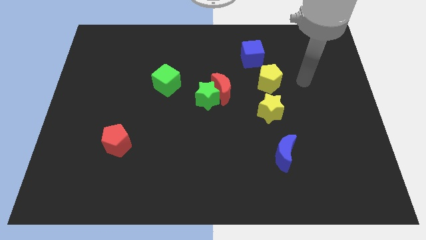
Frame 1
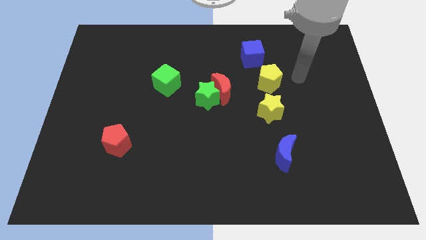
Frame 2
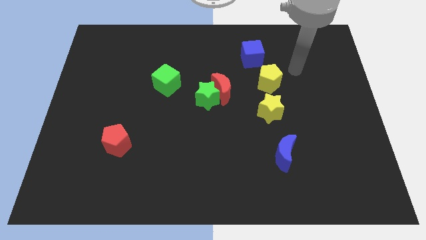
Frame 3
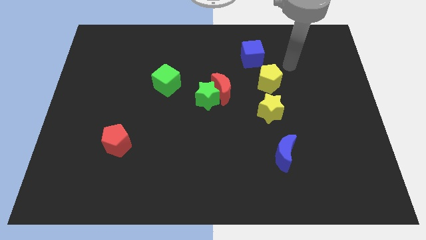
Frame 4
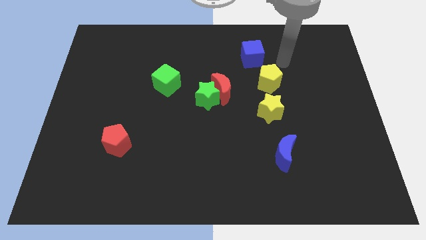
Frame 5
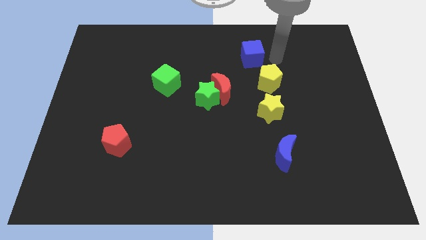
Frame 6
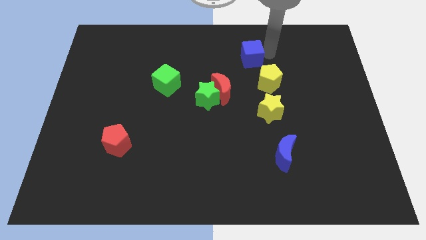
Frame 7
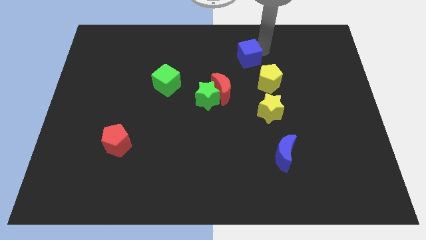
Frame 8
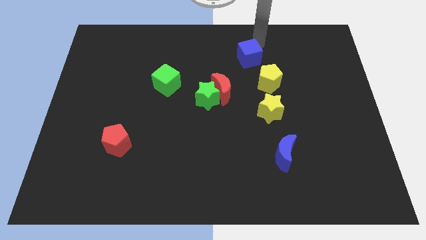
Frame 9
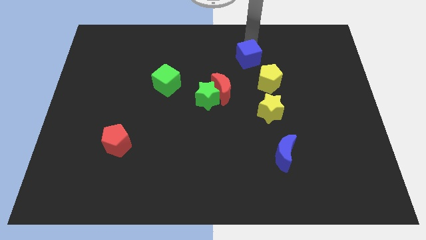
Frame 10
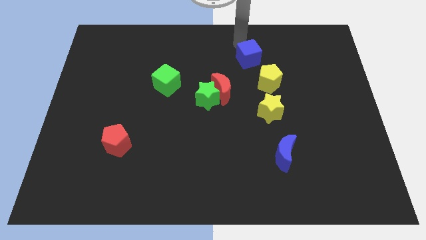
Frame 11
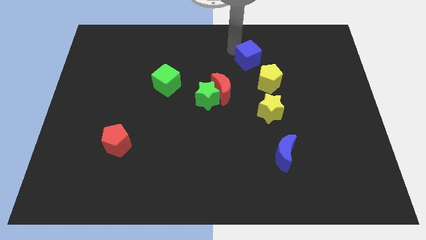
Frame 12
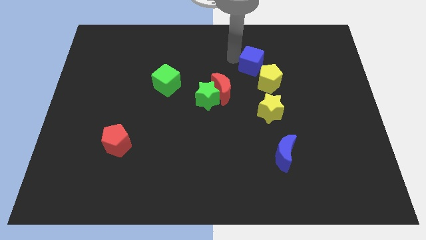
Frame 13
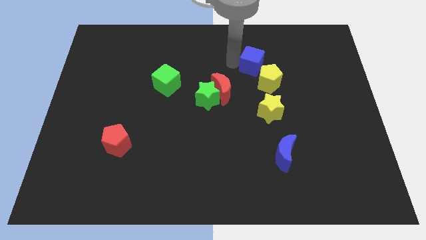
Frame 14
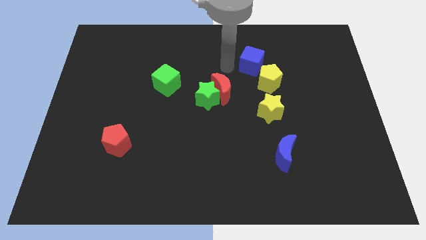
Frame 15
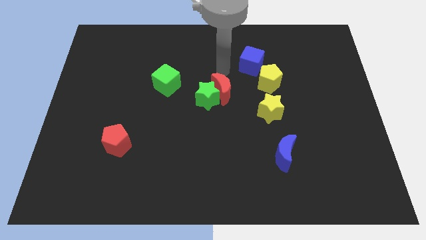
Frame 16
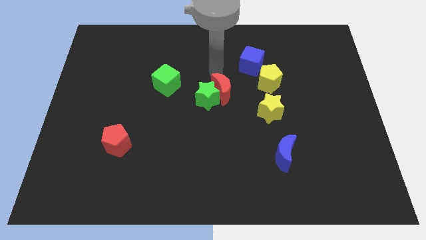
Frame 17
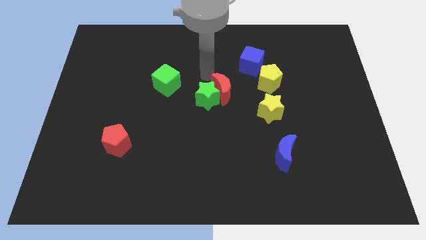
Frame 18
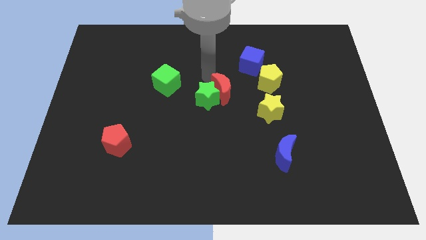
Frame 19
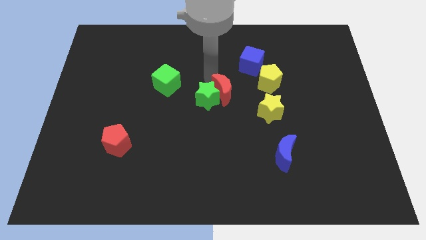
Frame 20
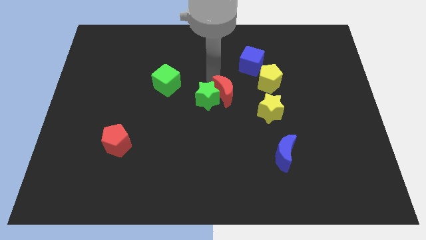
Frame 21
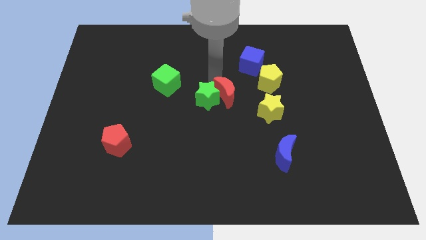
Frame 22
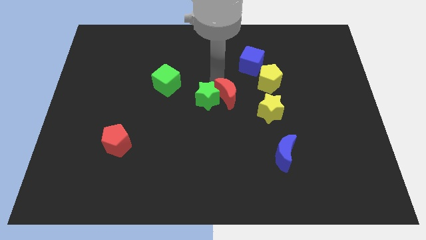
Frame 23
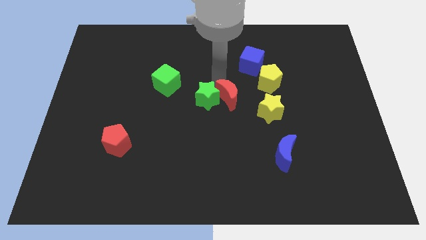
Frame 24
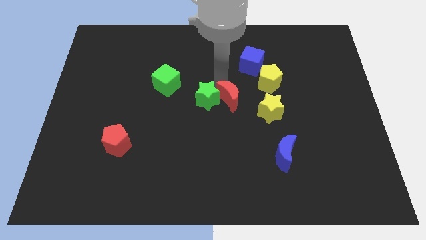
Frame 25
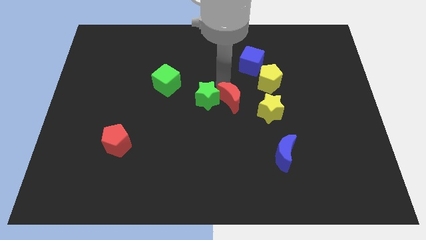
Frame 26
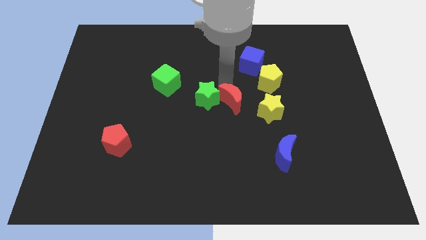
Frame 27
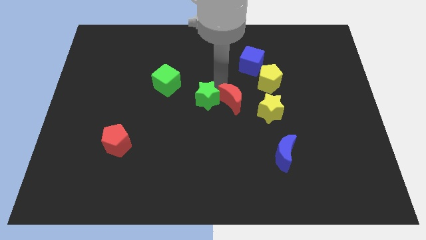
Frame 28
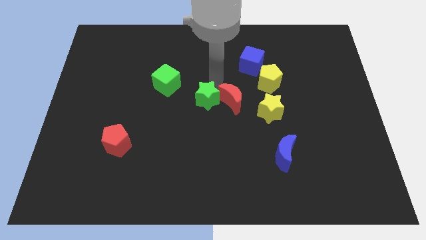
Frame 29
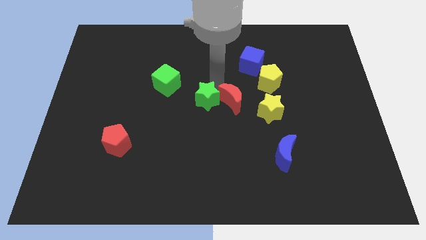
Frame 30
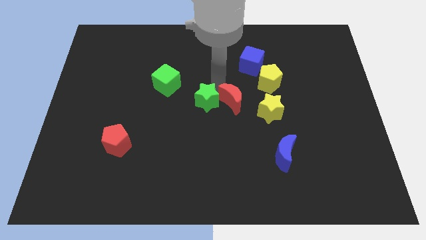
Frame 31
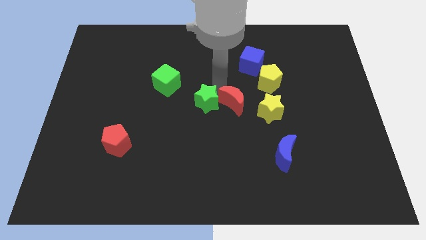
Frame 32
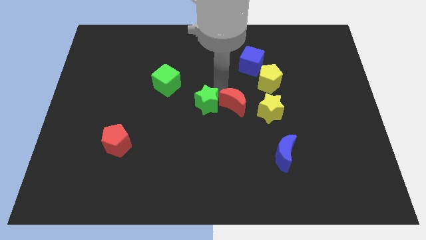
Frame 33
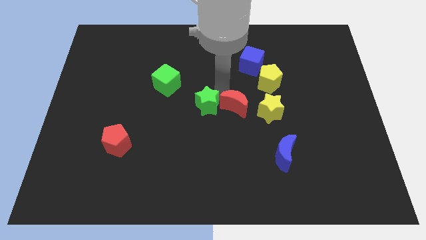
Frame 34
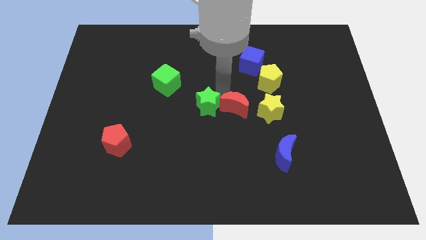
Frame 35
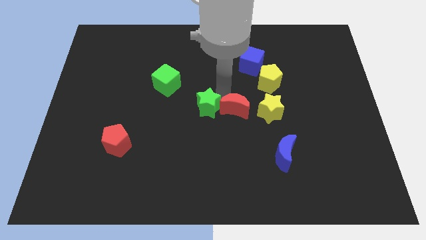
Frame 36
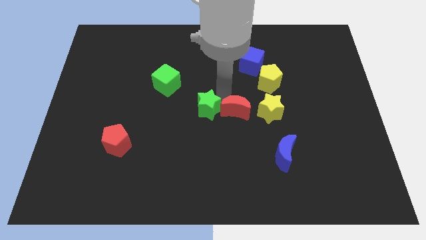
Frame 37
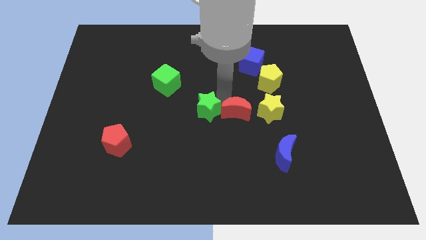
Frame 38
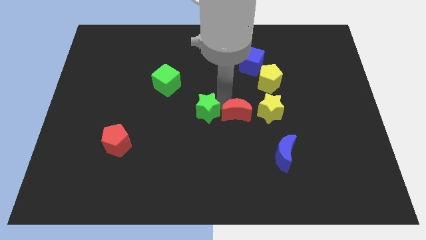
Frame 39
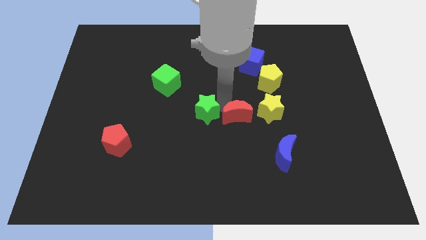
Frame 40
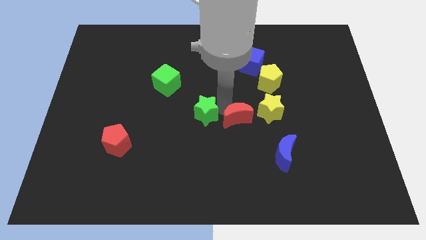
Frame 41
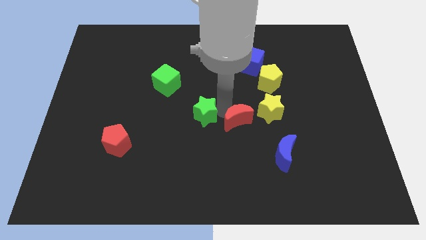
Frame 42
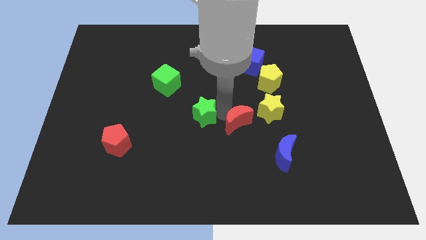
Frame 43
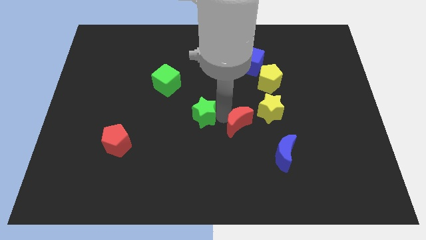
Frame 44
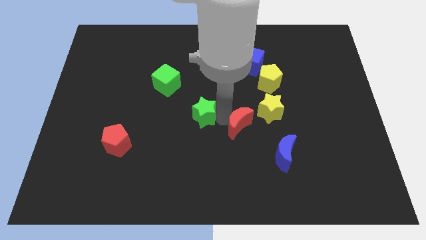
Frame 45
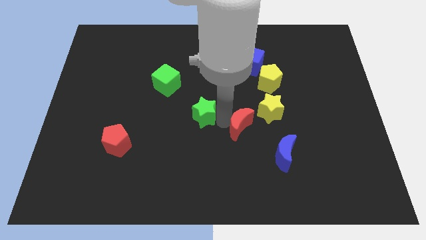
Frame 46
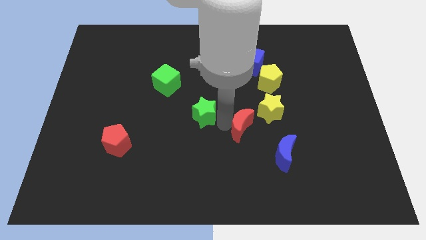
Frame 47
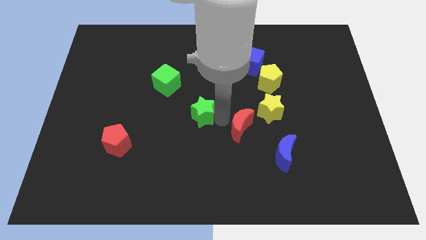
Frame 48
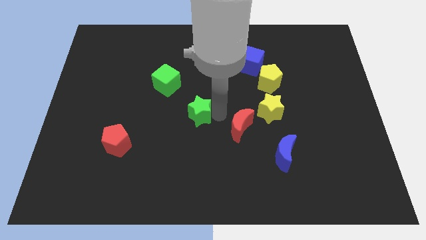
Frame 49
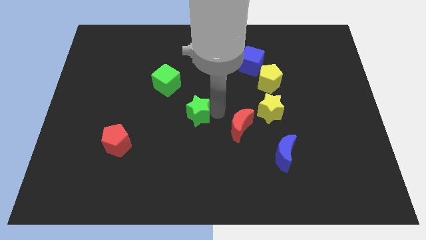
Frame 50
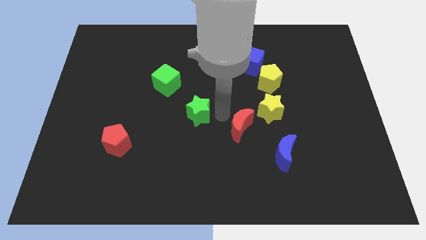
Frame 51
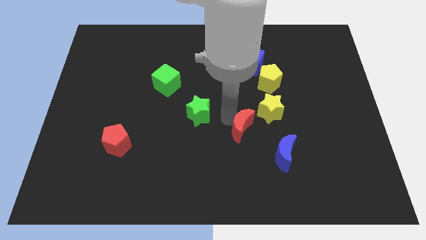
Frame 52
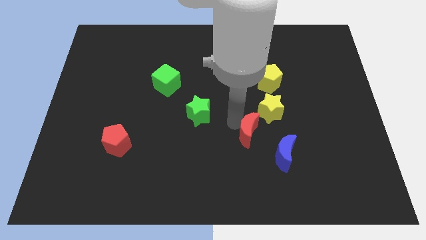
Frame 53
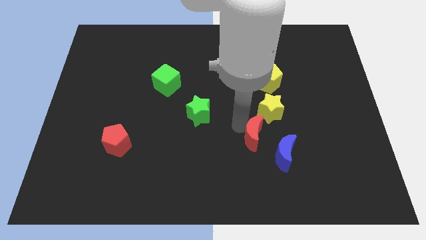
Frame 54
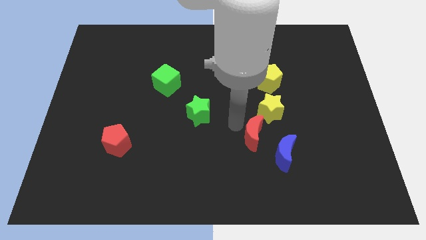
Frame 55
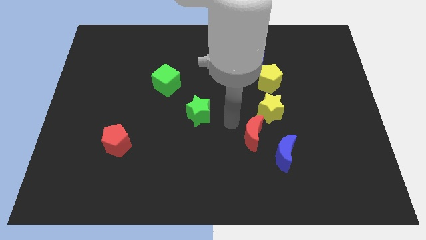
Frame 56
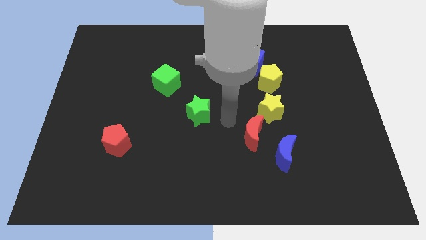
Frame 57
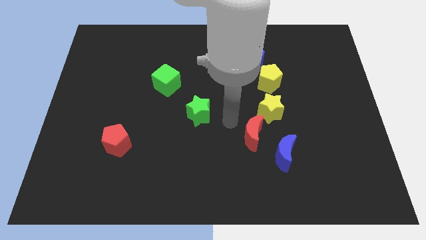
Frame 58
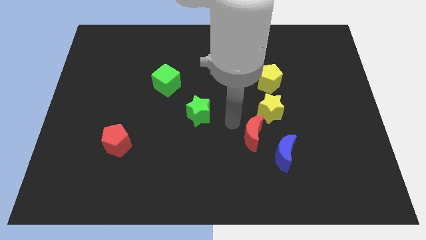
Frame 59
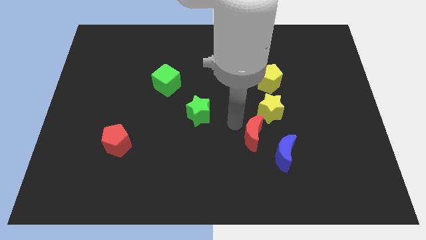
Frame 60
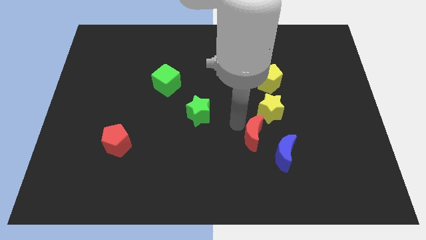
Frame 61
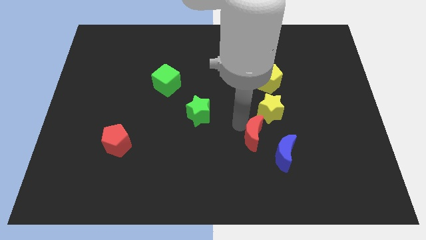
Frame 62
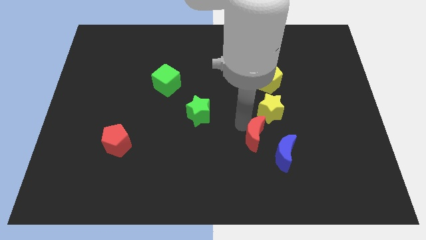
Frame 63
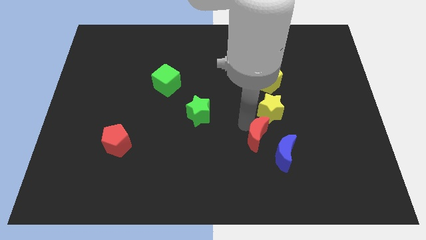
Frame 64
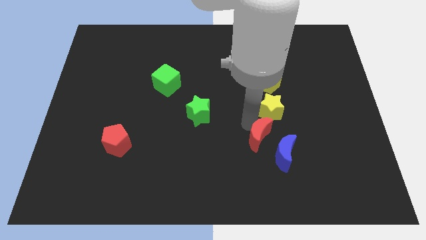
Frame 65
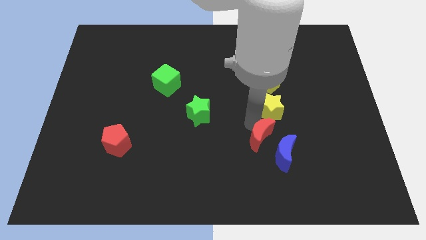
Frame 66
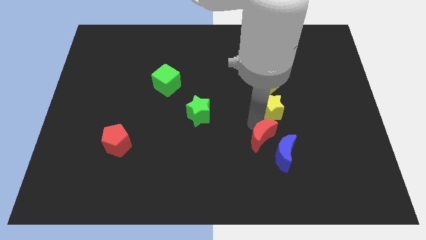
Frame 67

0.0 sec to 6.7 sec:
slide the red moon close to the blue moon

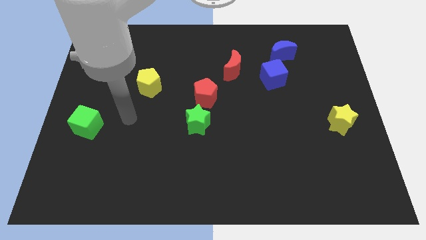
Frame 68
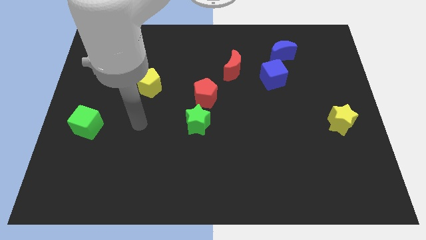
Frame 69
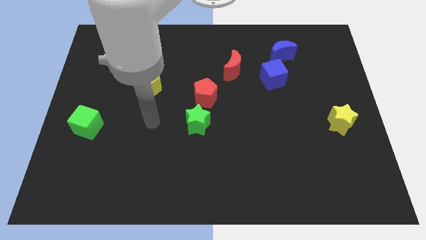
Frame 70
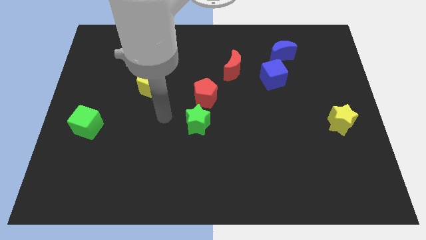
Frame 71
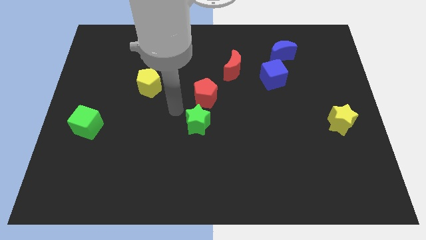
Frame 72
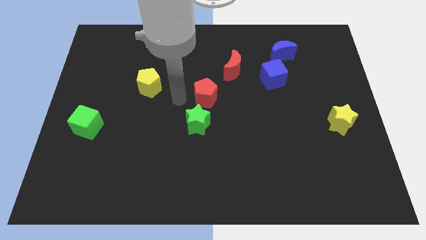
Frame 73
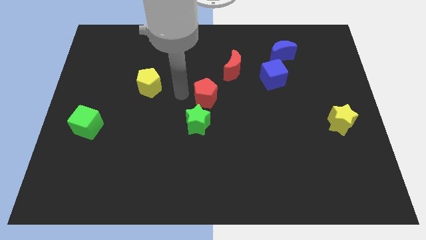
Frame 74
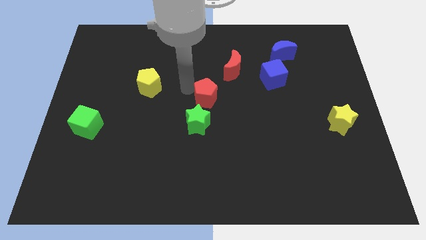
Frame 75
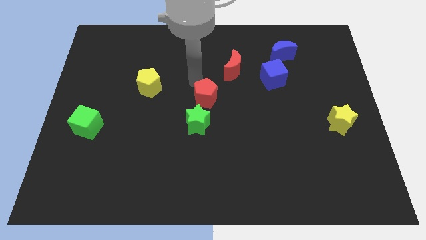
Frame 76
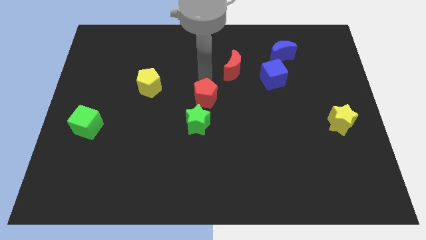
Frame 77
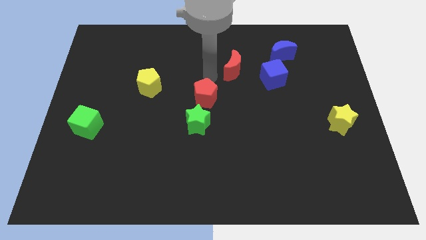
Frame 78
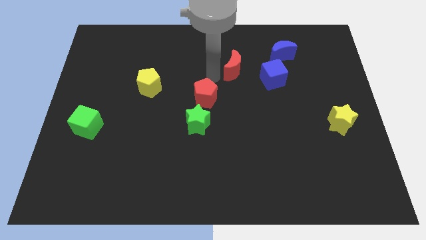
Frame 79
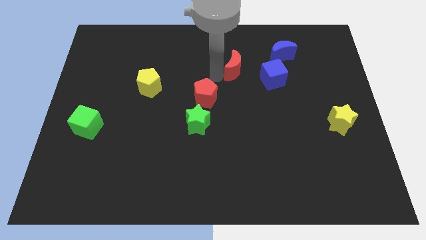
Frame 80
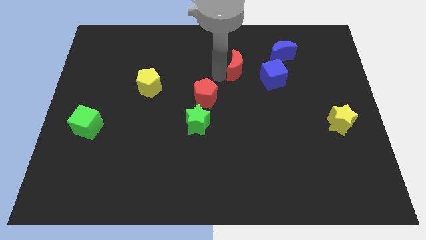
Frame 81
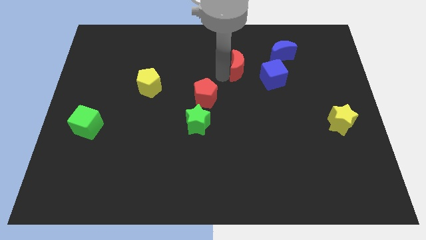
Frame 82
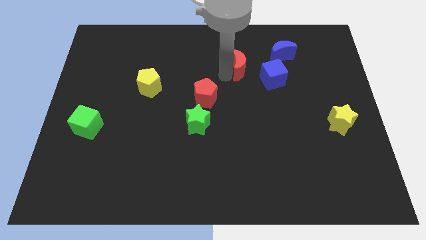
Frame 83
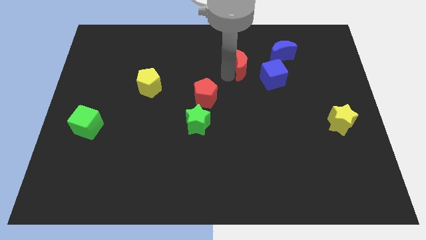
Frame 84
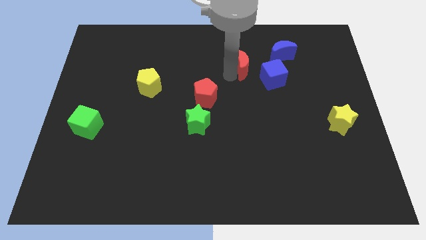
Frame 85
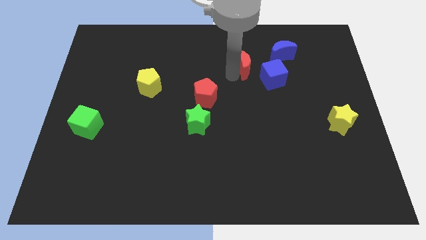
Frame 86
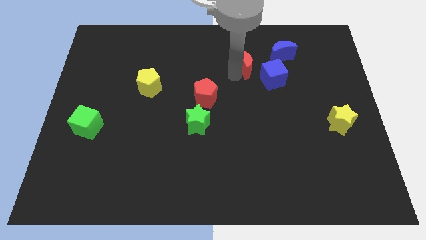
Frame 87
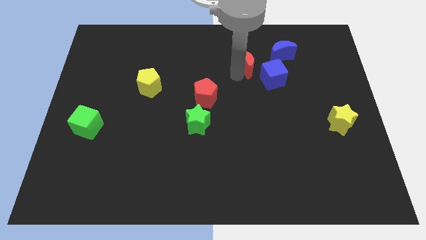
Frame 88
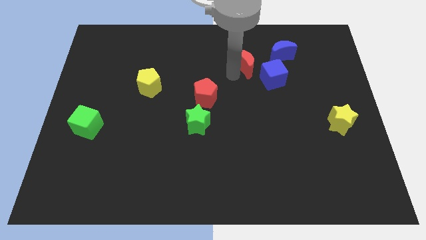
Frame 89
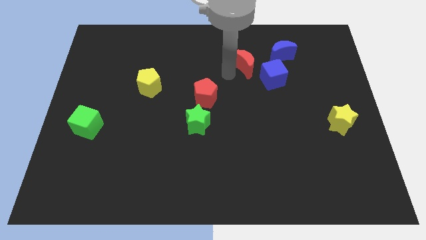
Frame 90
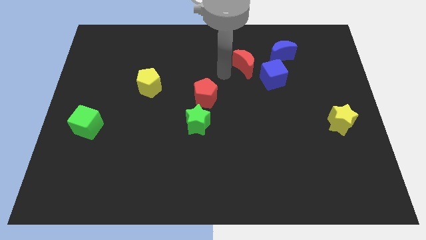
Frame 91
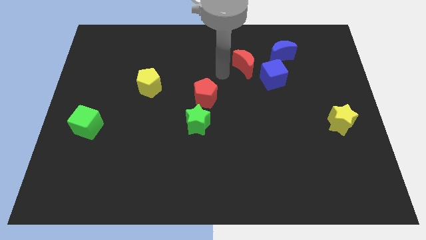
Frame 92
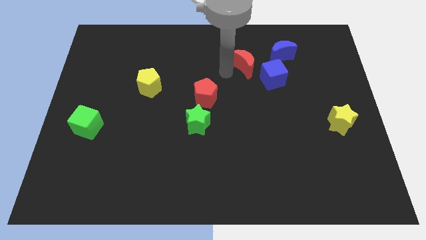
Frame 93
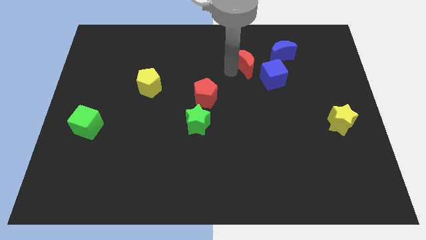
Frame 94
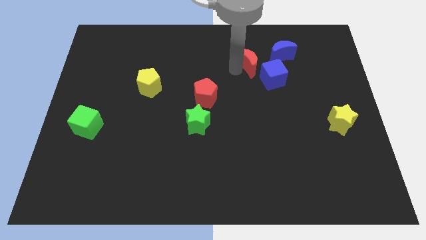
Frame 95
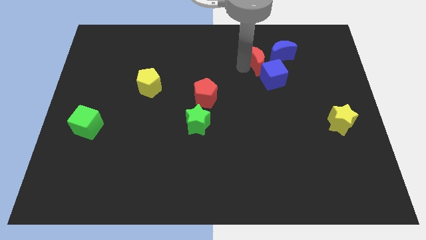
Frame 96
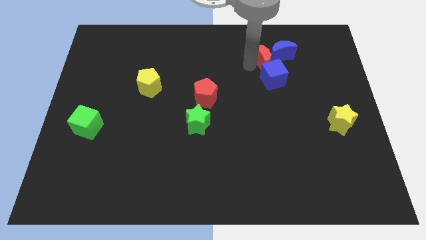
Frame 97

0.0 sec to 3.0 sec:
slide the red moon towards the blue moon
